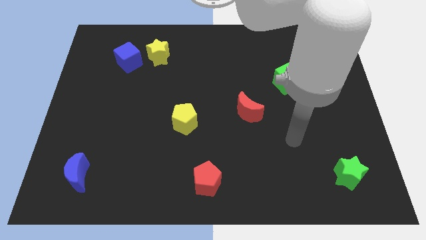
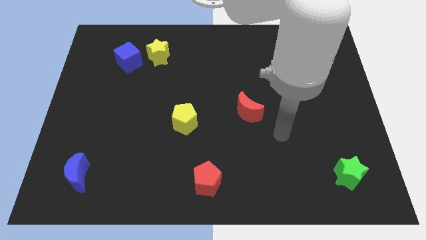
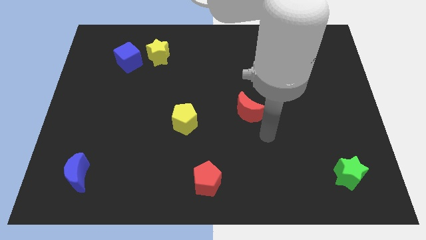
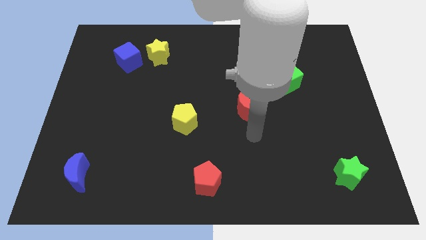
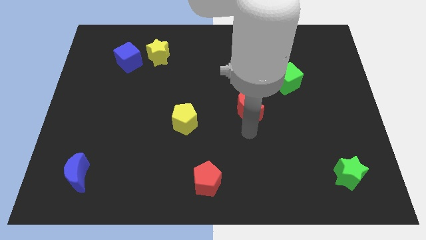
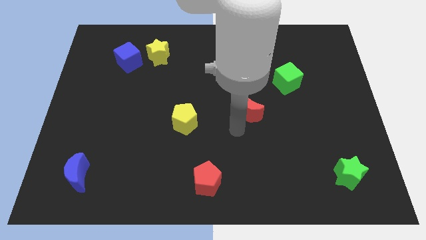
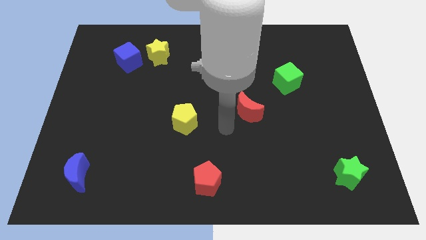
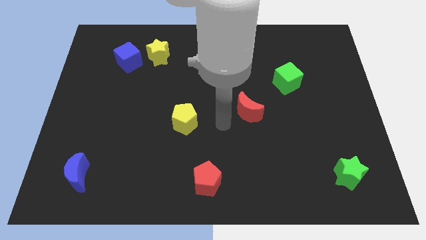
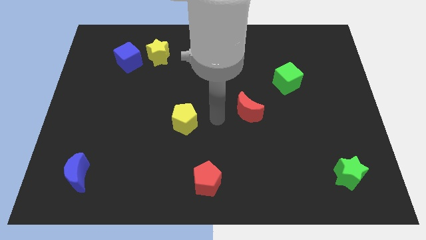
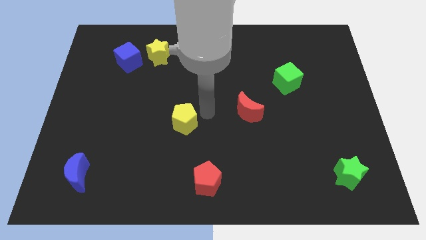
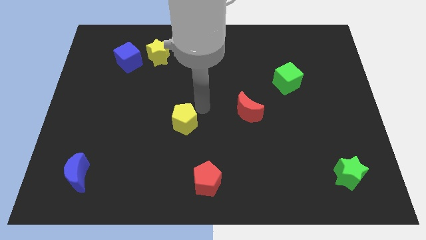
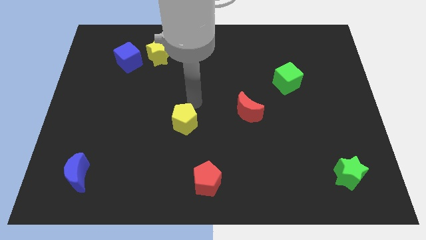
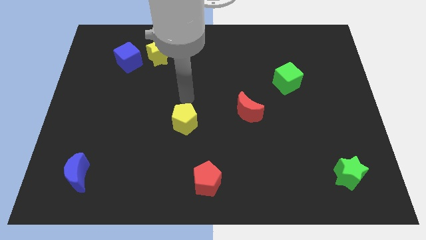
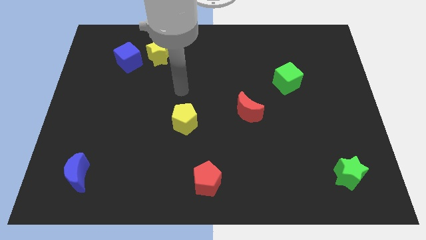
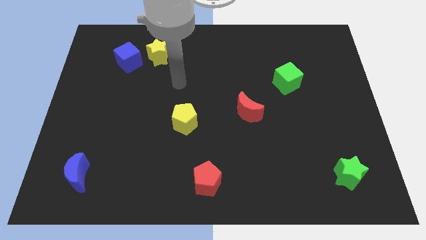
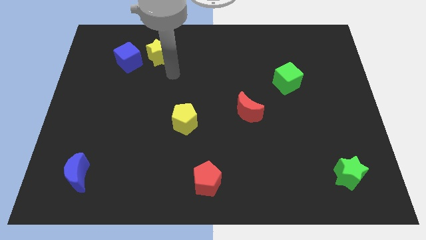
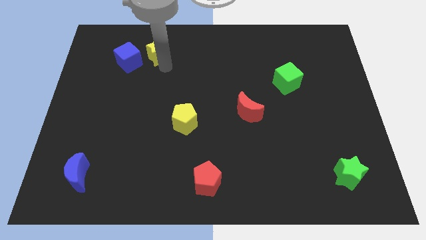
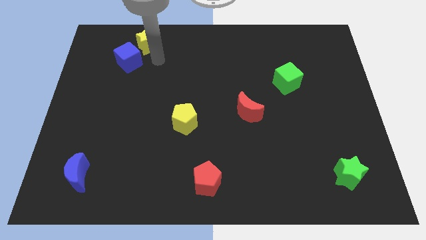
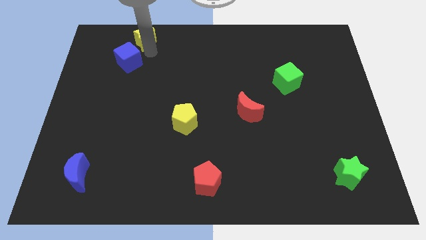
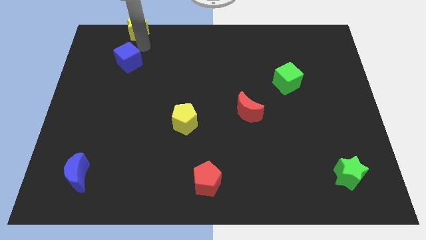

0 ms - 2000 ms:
move the blue cube away from the yellow star

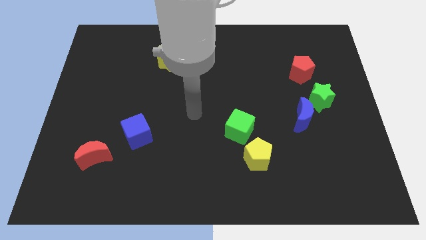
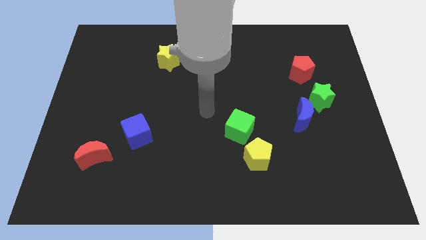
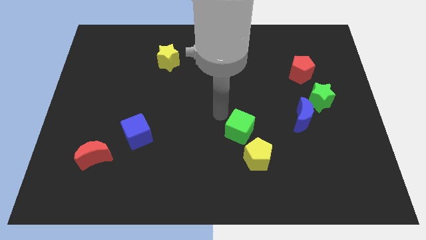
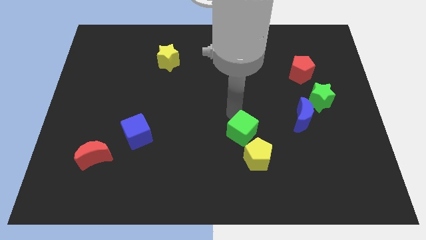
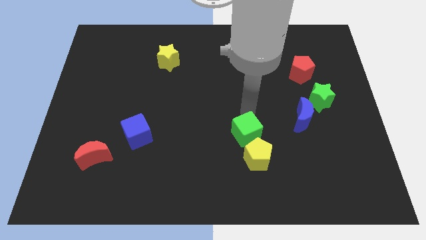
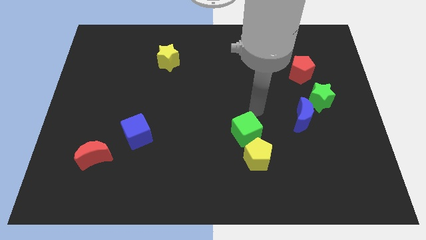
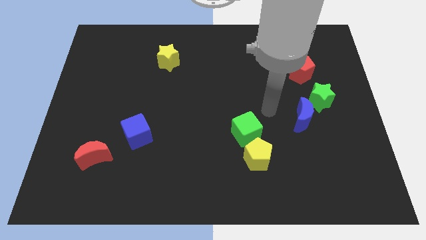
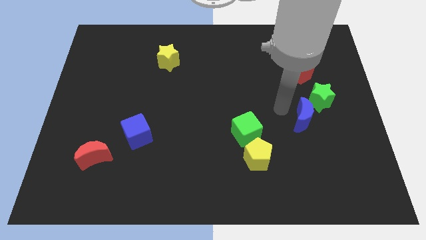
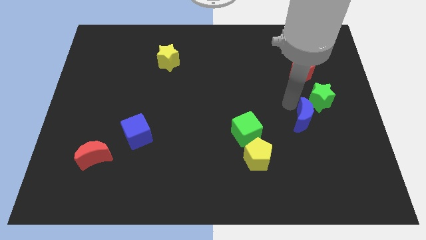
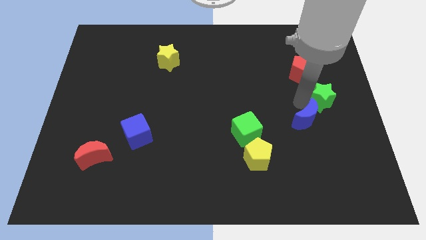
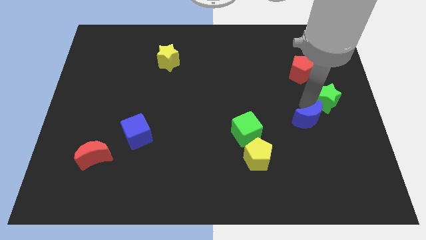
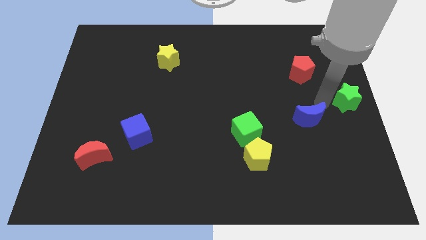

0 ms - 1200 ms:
move the blue moon away from the green star

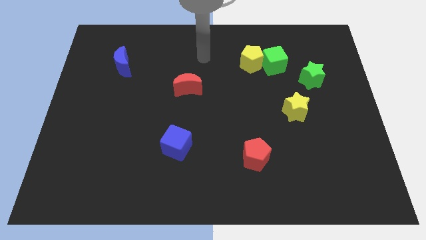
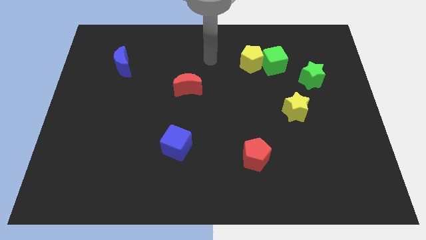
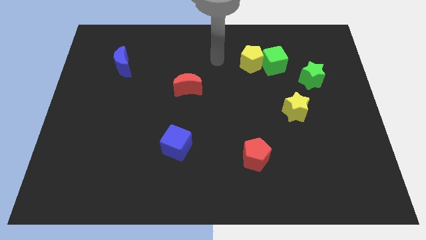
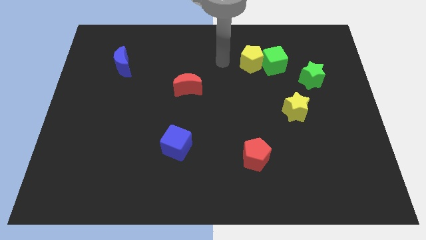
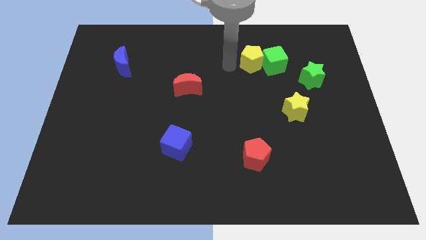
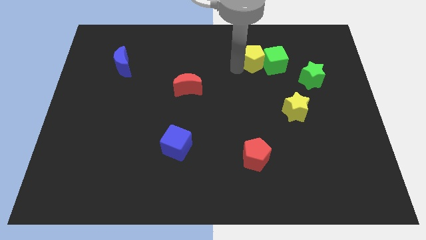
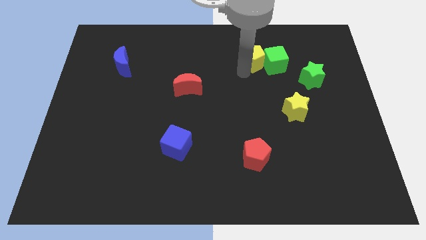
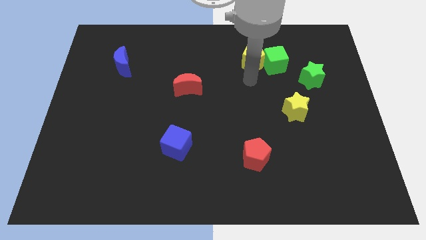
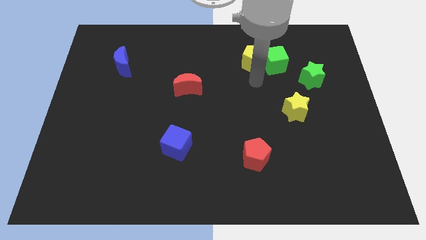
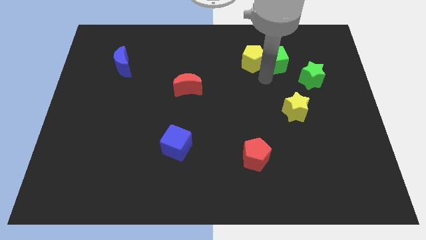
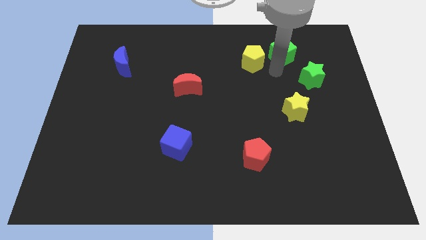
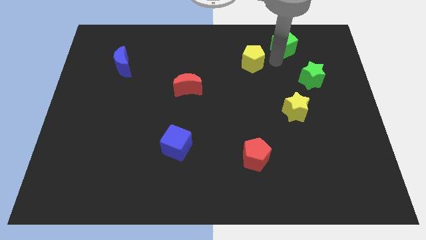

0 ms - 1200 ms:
pull the yellow pentagon apart from the green cube

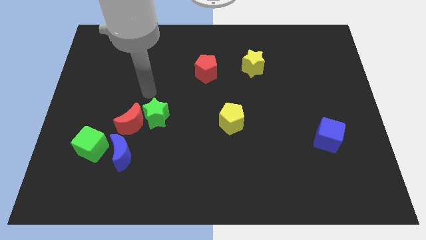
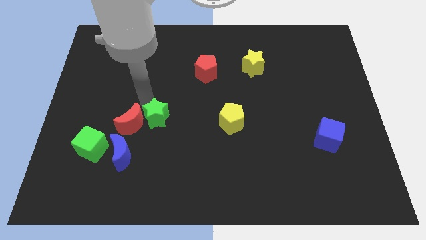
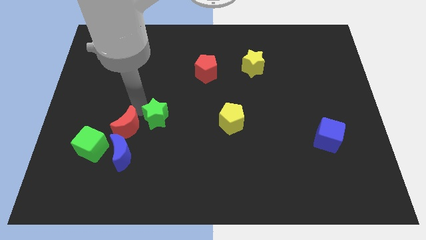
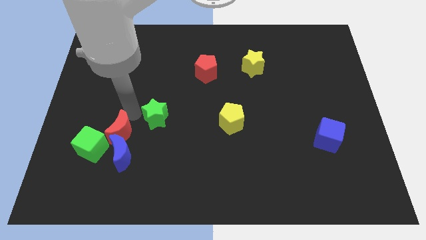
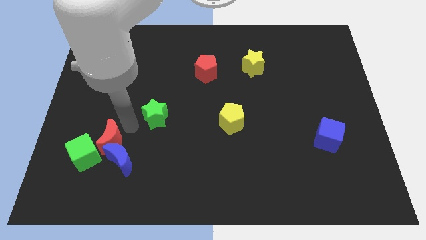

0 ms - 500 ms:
move the green star away from the red moon

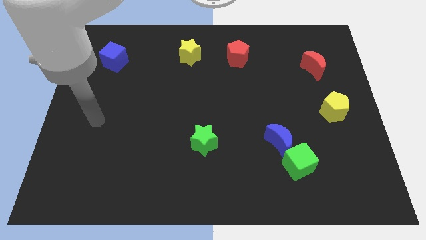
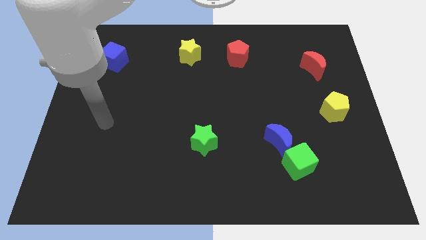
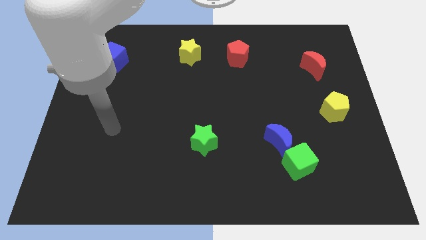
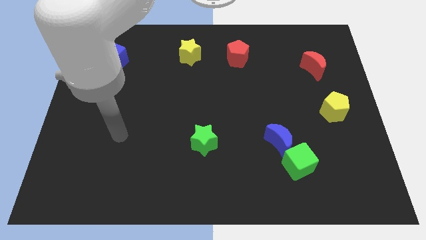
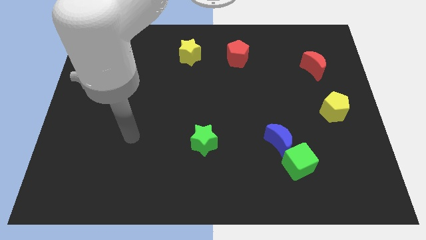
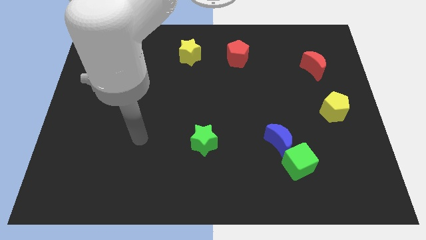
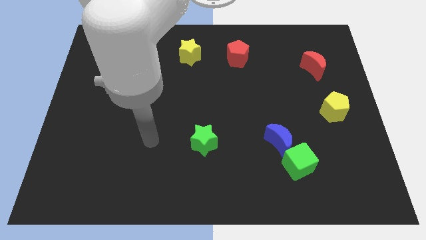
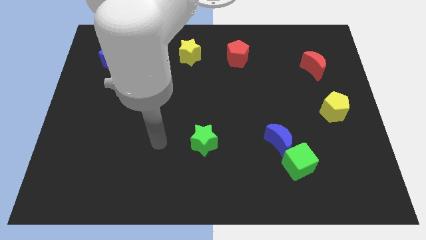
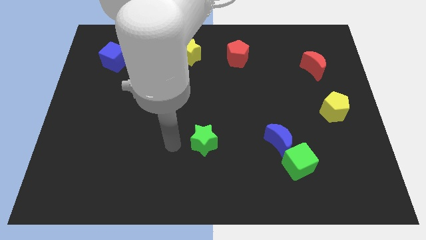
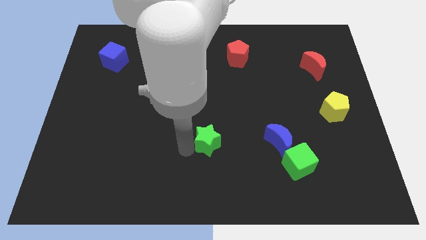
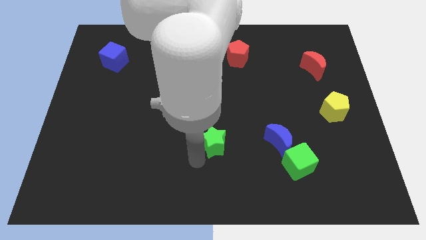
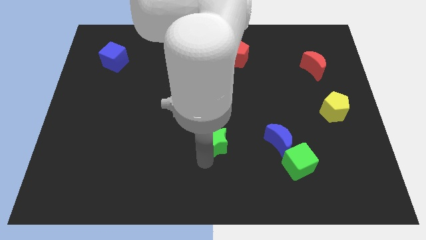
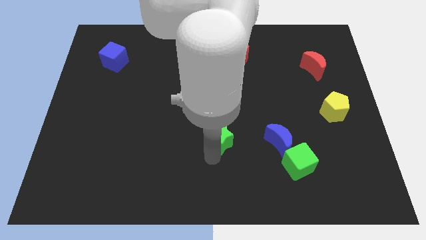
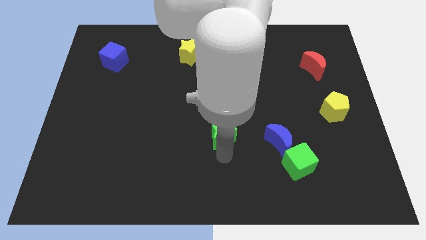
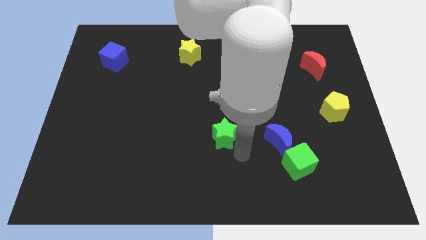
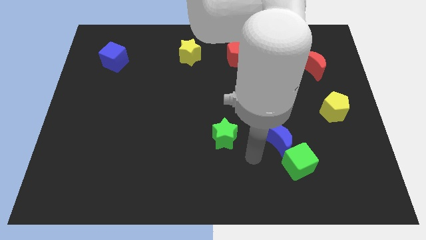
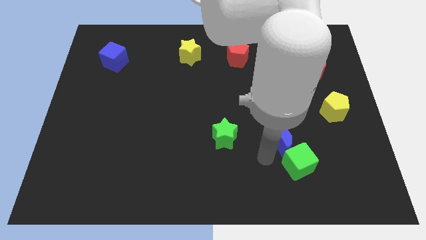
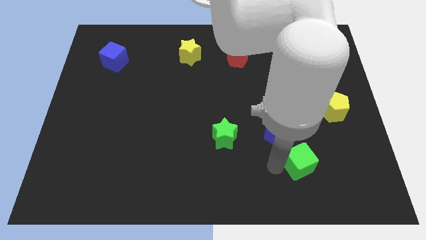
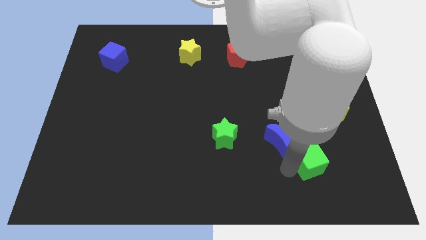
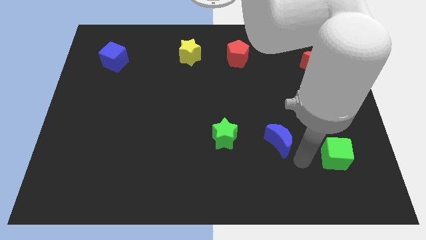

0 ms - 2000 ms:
separate the blue moon from the green cube

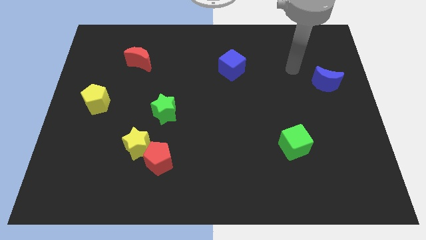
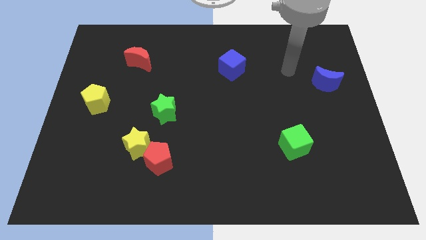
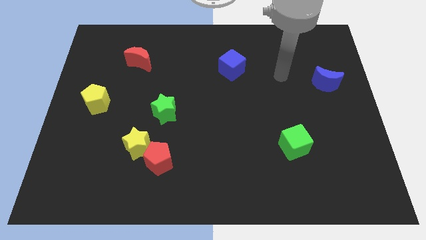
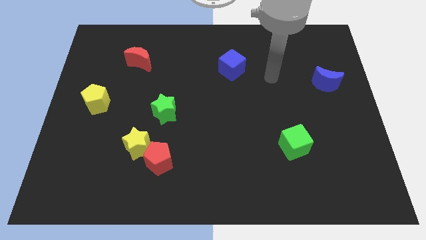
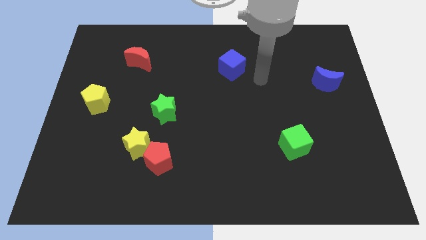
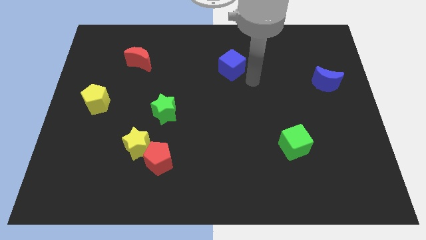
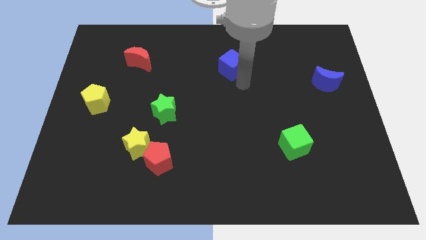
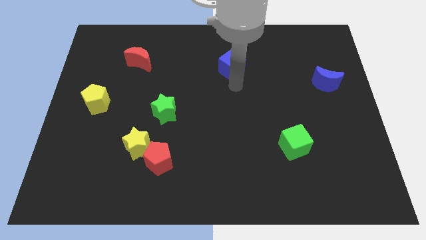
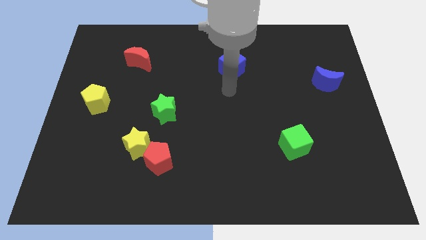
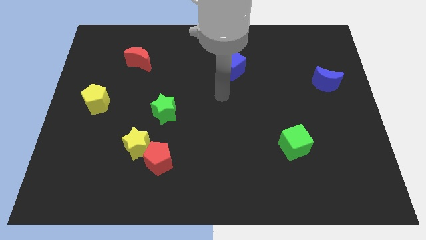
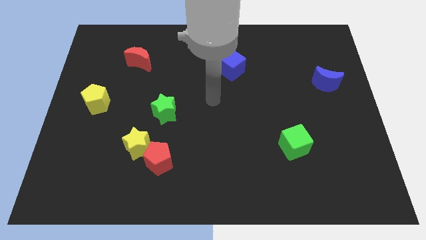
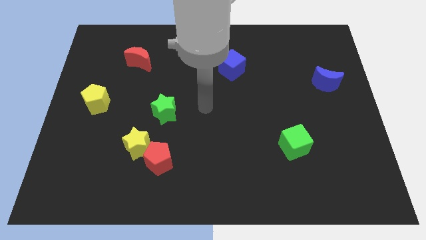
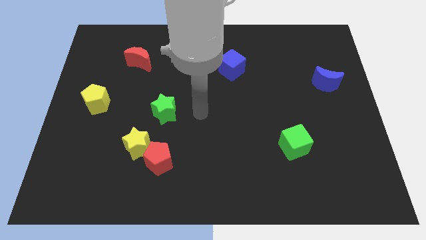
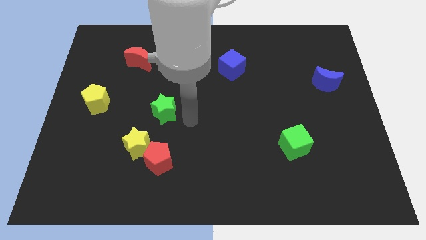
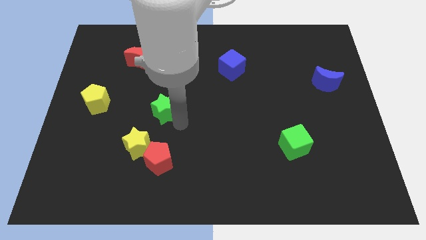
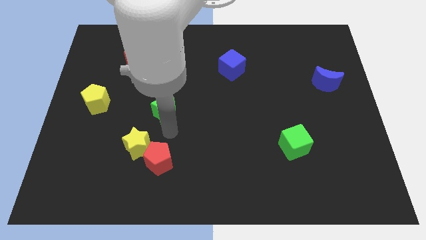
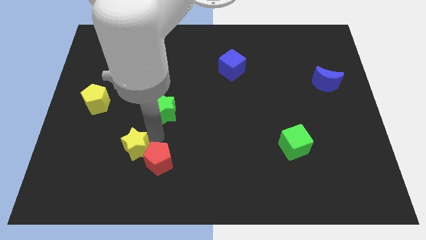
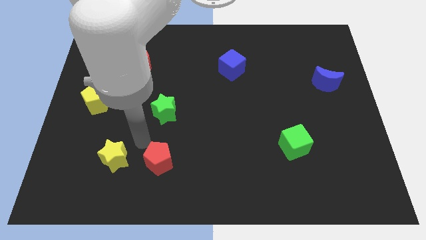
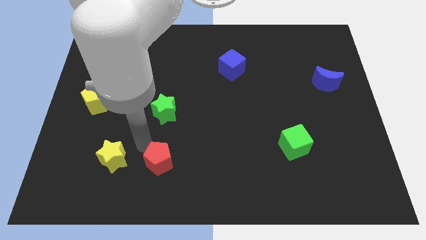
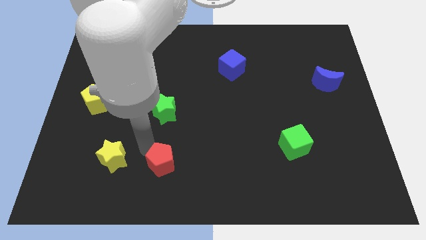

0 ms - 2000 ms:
pull the red pentagon apart from the yellow star

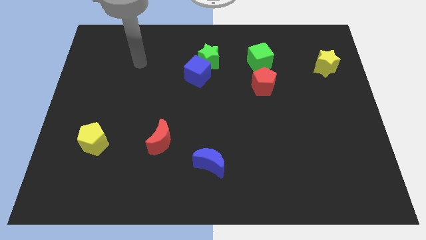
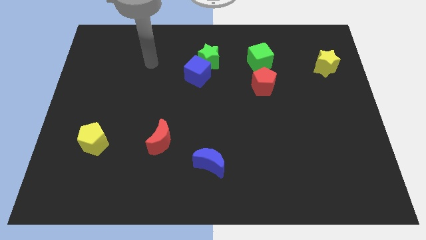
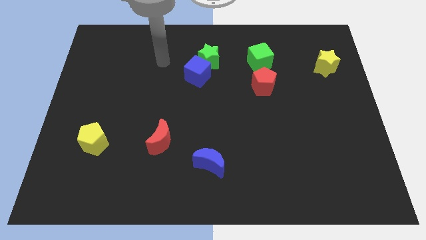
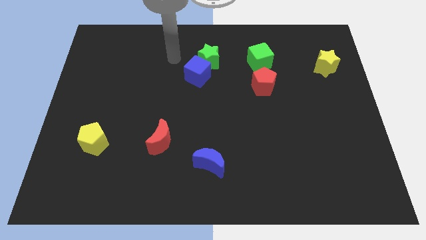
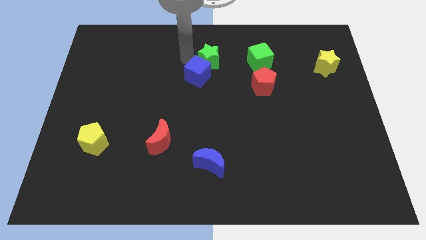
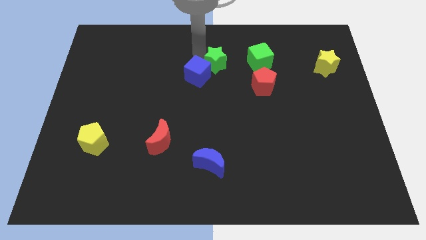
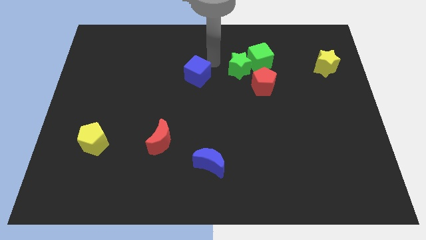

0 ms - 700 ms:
separate the blue cube from the green star
